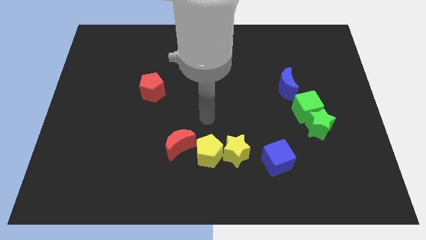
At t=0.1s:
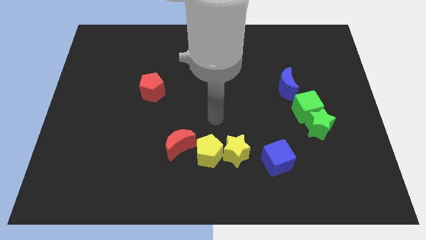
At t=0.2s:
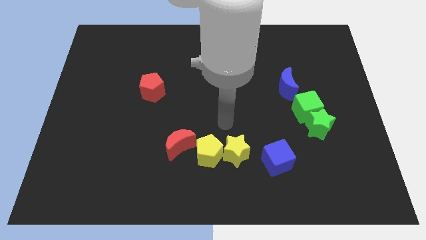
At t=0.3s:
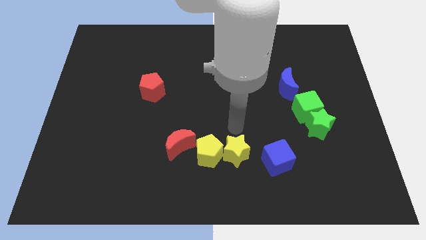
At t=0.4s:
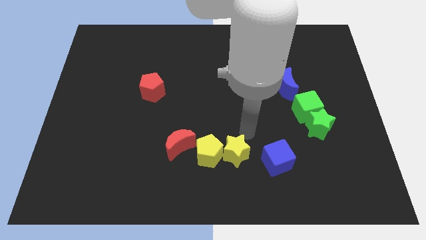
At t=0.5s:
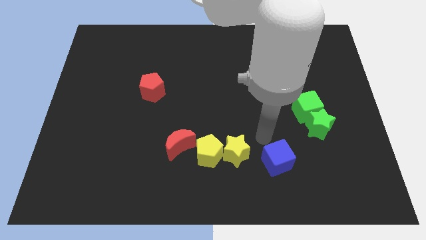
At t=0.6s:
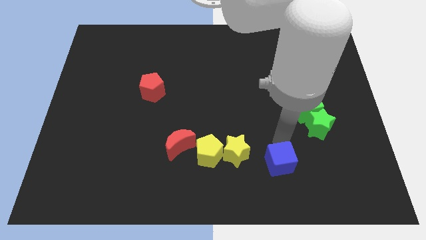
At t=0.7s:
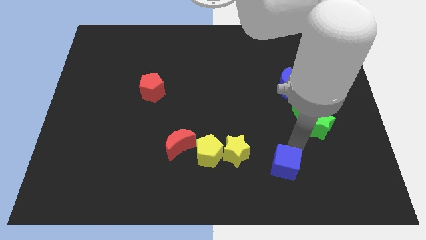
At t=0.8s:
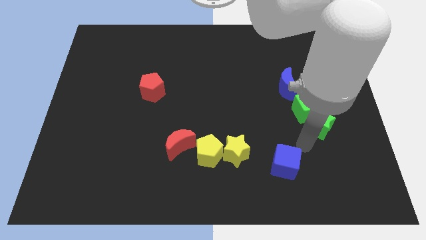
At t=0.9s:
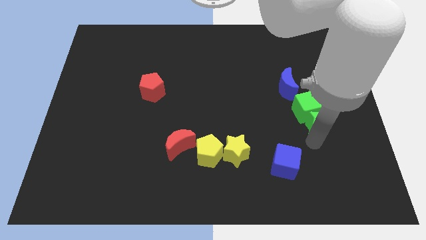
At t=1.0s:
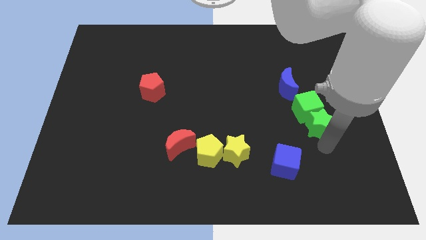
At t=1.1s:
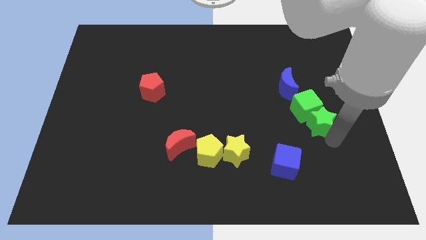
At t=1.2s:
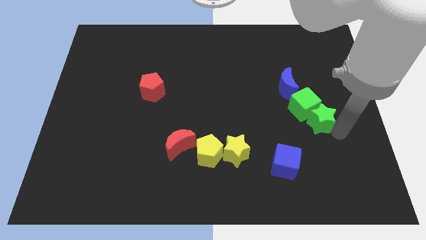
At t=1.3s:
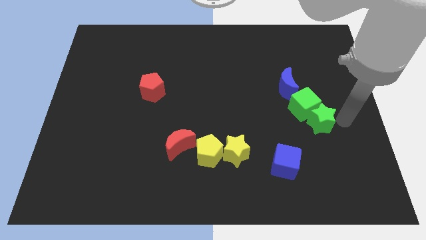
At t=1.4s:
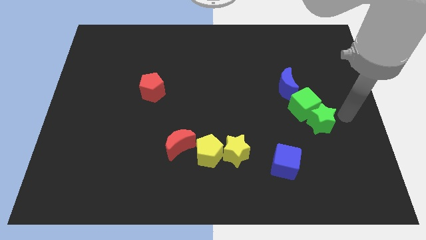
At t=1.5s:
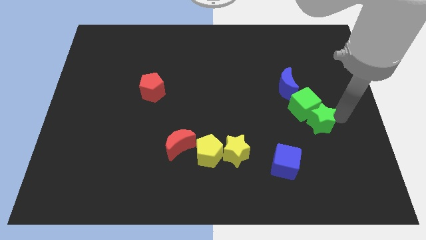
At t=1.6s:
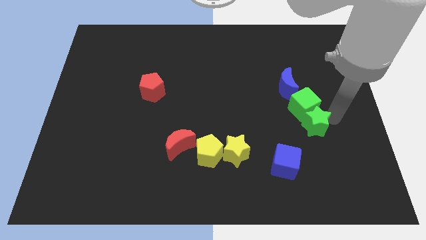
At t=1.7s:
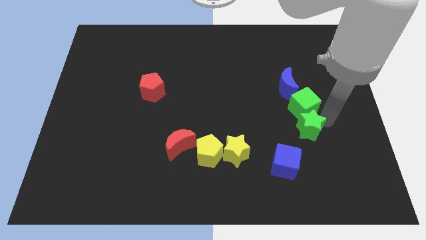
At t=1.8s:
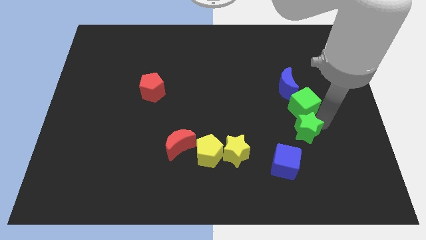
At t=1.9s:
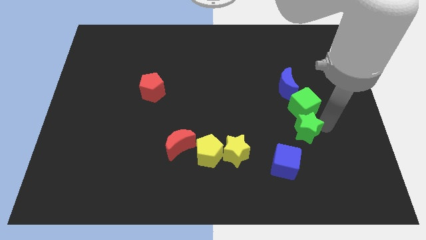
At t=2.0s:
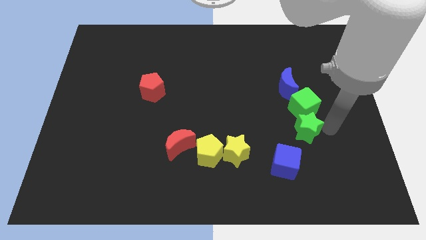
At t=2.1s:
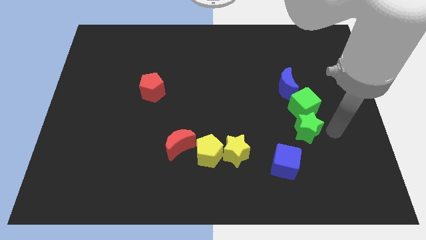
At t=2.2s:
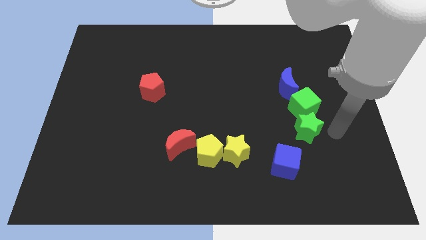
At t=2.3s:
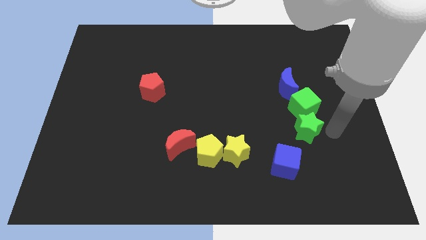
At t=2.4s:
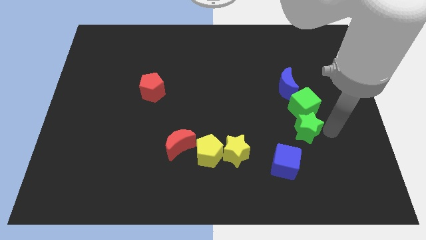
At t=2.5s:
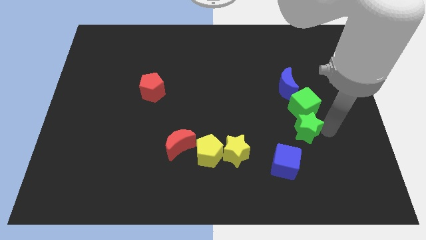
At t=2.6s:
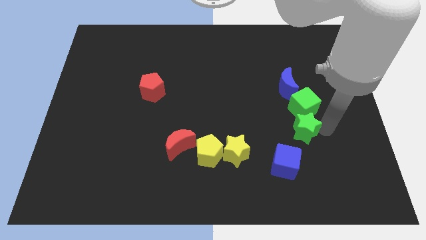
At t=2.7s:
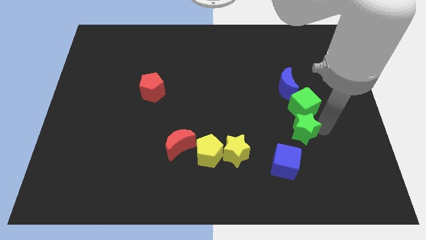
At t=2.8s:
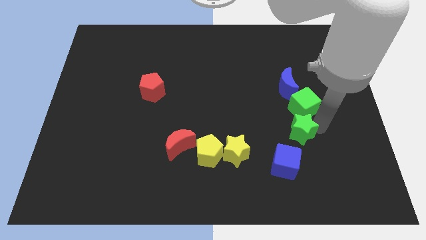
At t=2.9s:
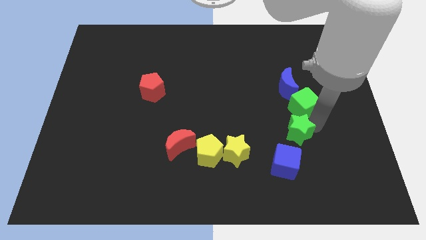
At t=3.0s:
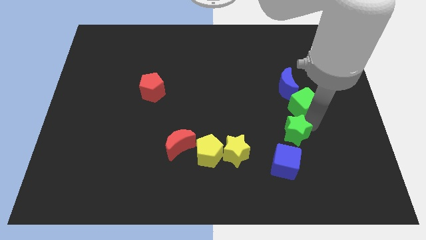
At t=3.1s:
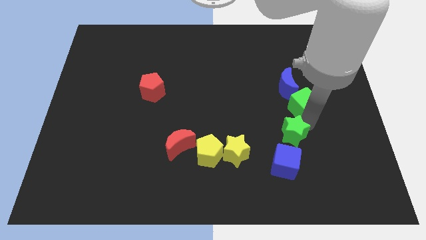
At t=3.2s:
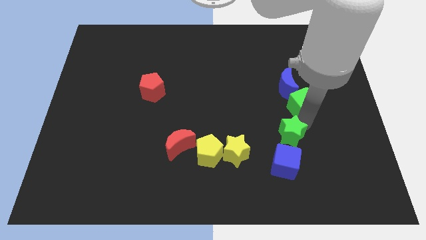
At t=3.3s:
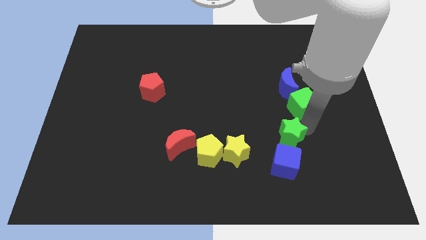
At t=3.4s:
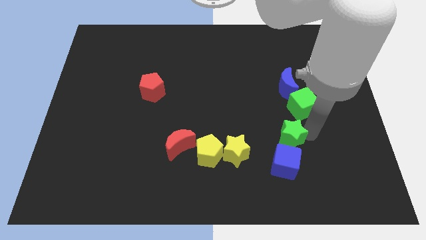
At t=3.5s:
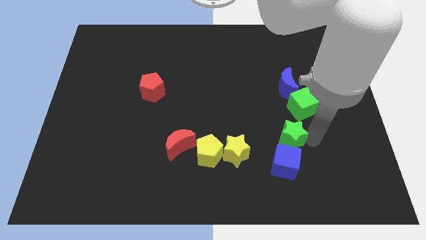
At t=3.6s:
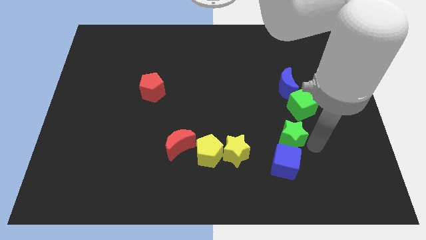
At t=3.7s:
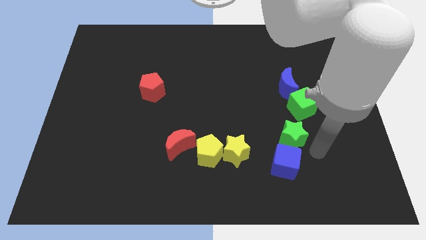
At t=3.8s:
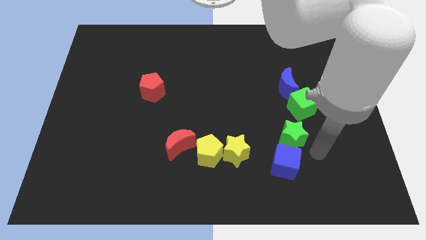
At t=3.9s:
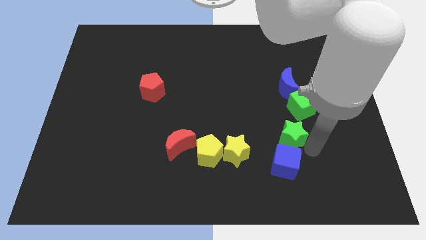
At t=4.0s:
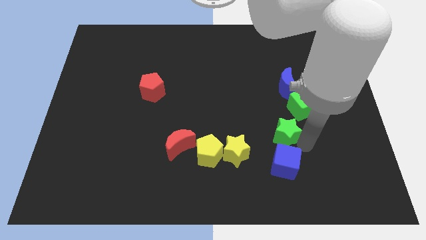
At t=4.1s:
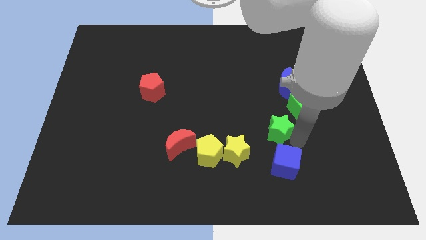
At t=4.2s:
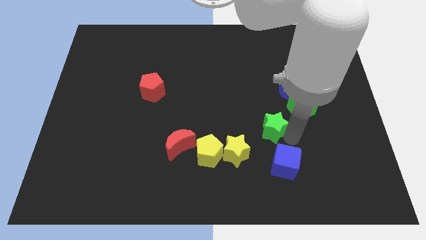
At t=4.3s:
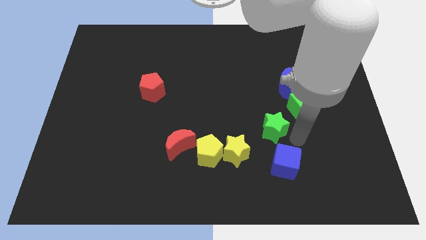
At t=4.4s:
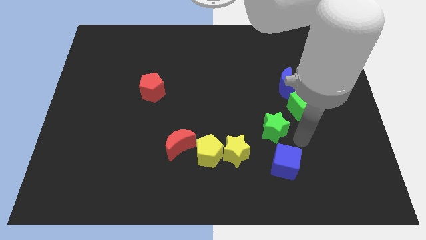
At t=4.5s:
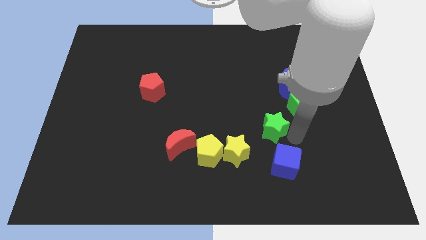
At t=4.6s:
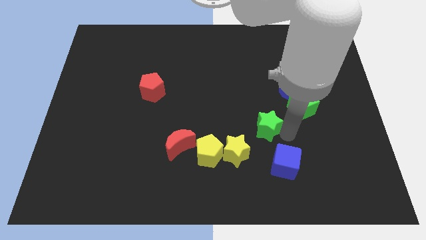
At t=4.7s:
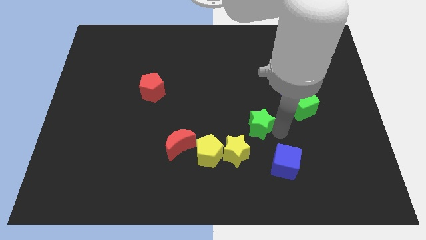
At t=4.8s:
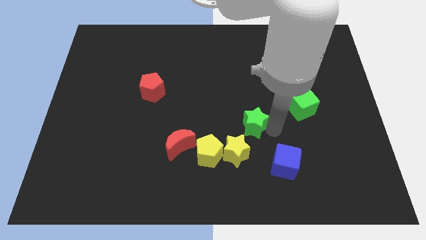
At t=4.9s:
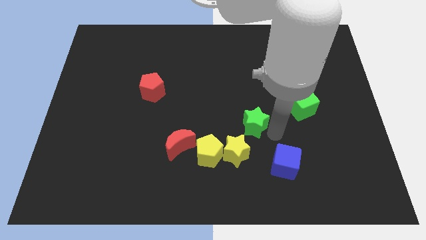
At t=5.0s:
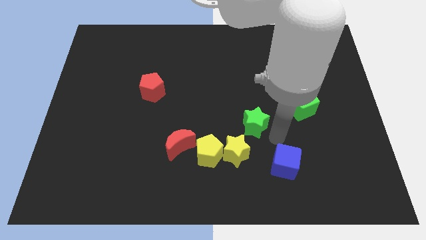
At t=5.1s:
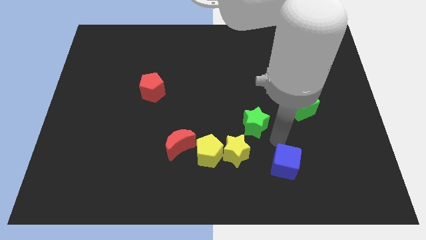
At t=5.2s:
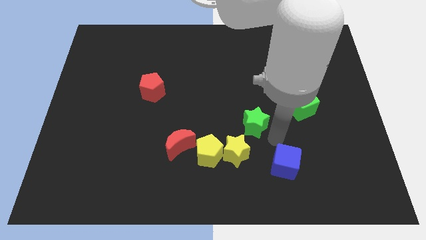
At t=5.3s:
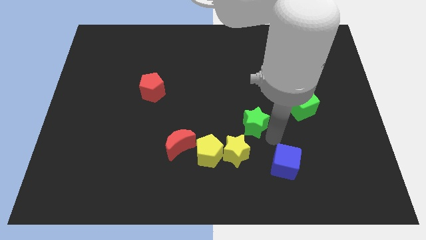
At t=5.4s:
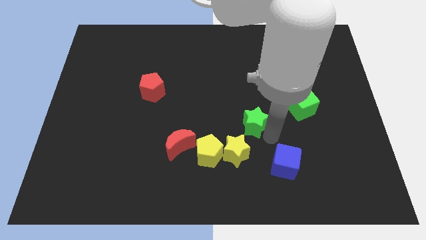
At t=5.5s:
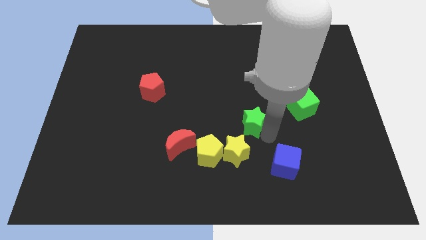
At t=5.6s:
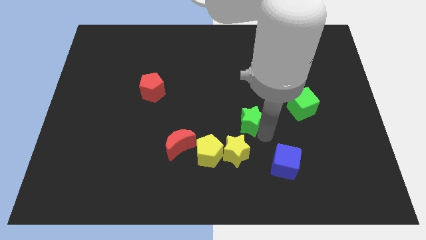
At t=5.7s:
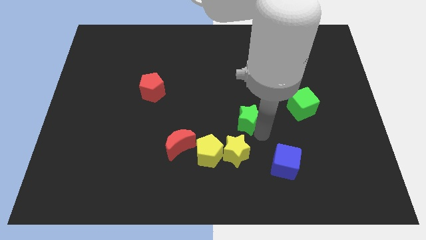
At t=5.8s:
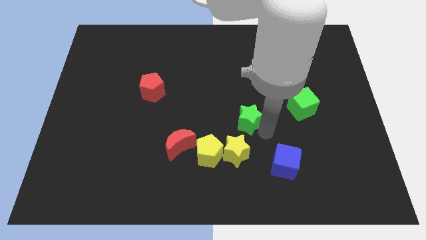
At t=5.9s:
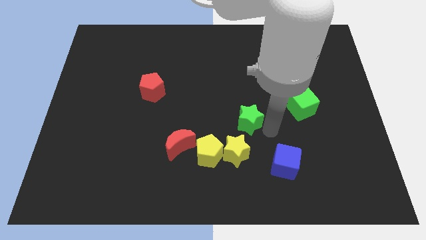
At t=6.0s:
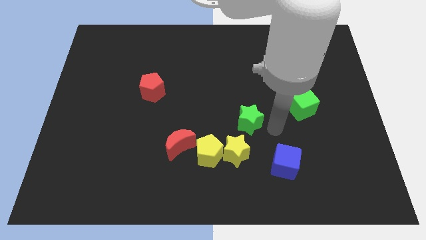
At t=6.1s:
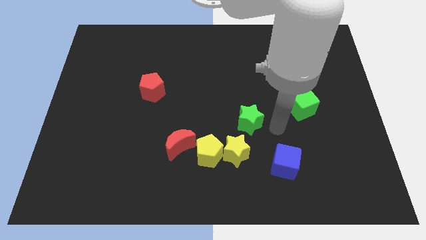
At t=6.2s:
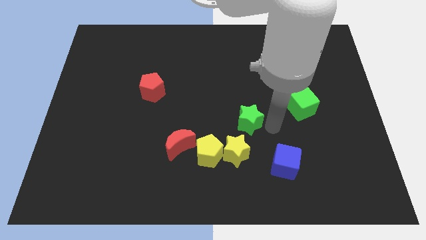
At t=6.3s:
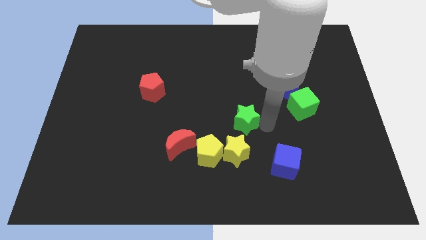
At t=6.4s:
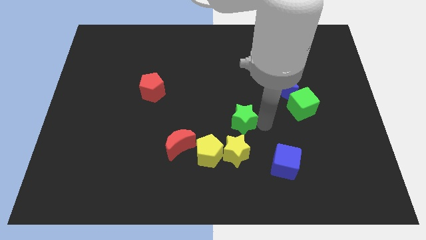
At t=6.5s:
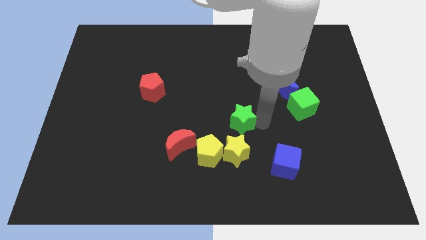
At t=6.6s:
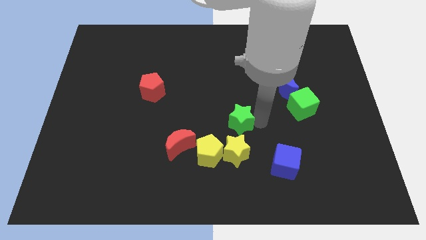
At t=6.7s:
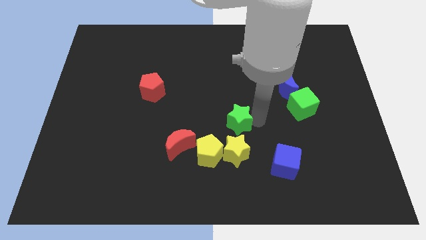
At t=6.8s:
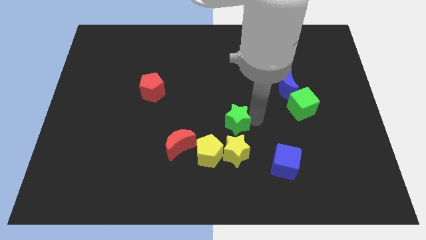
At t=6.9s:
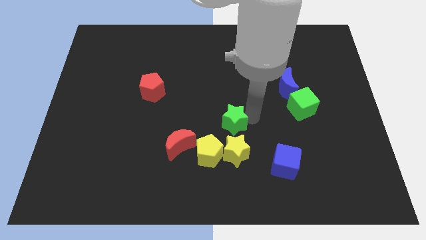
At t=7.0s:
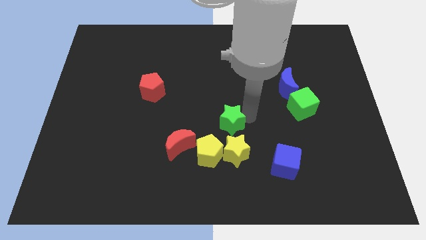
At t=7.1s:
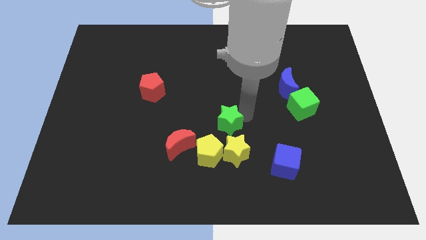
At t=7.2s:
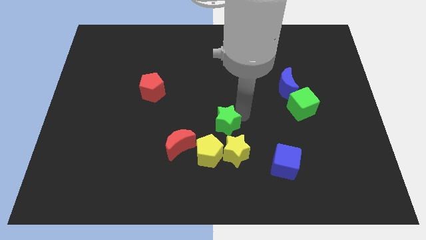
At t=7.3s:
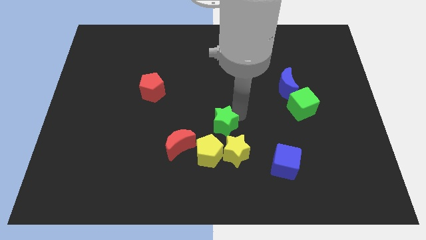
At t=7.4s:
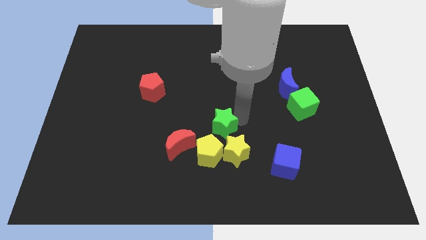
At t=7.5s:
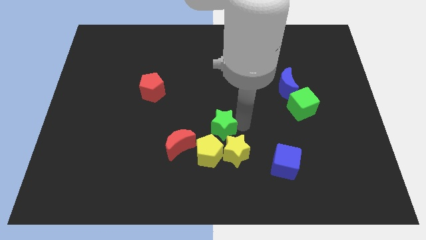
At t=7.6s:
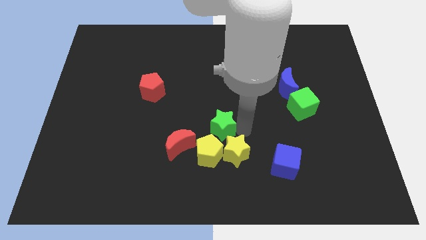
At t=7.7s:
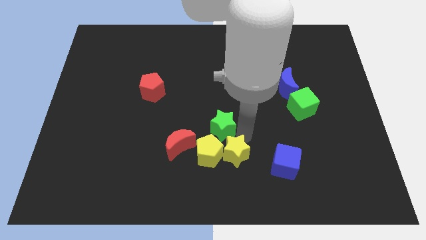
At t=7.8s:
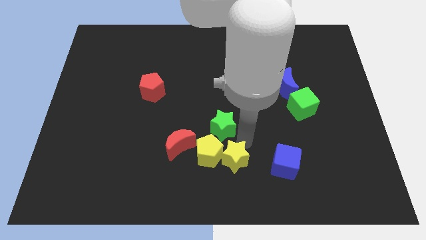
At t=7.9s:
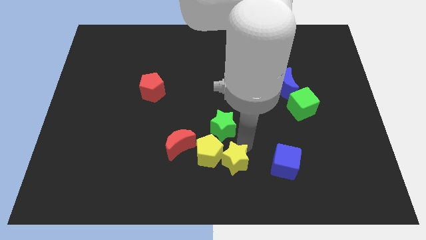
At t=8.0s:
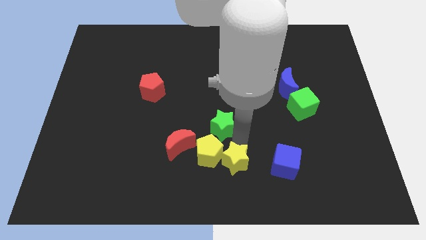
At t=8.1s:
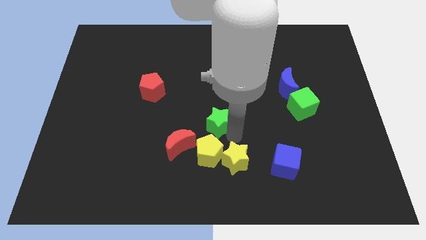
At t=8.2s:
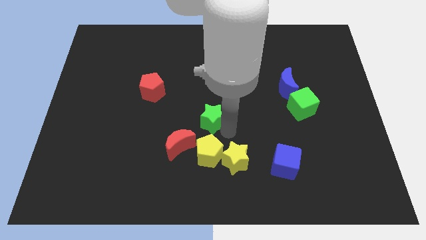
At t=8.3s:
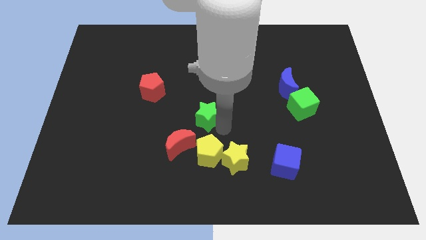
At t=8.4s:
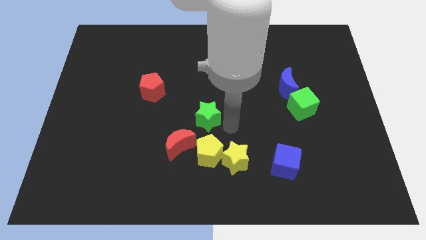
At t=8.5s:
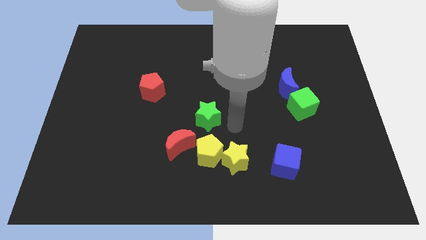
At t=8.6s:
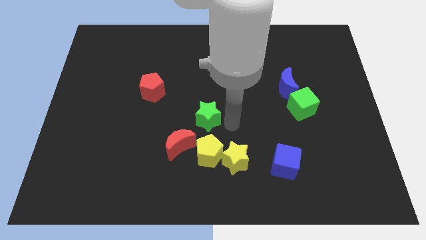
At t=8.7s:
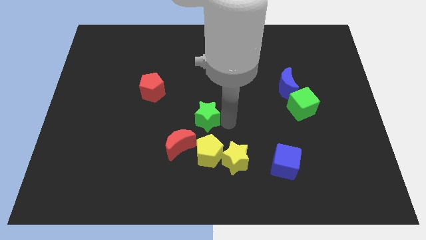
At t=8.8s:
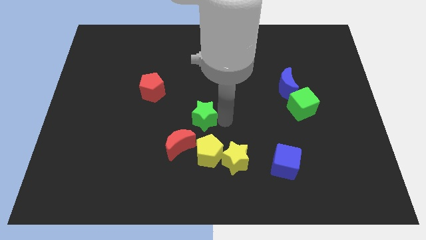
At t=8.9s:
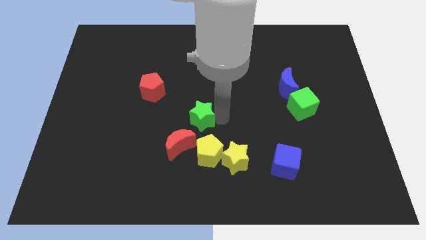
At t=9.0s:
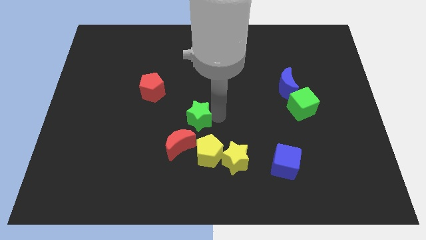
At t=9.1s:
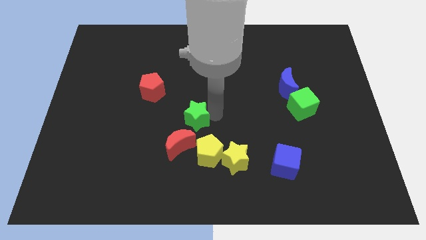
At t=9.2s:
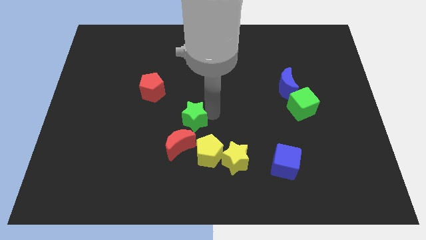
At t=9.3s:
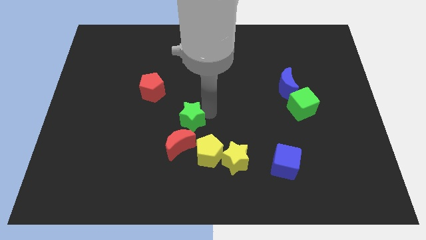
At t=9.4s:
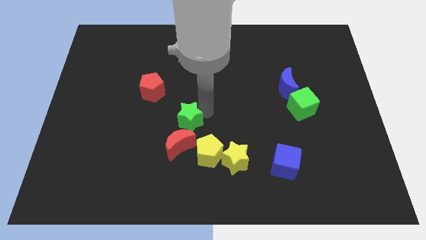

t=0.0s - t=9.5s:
push the green star to the bottom right of the red pentagon
